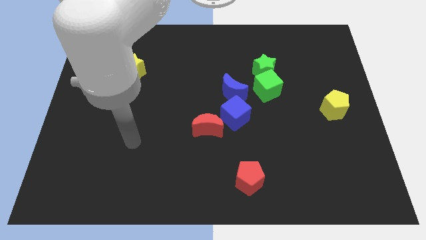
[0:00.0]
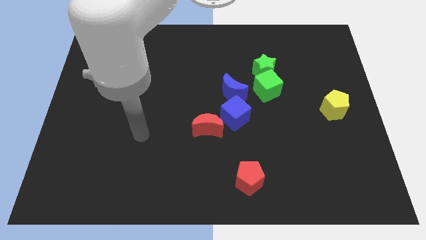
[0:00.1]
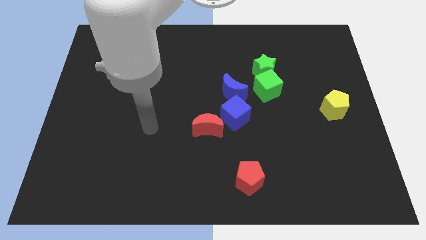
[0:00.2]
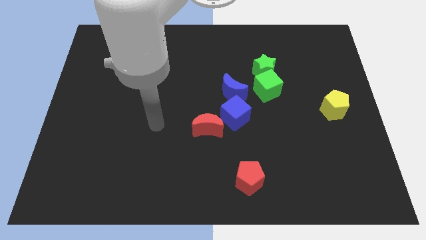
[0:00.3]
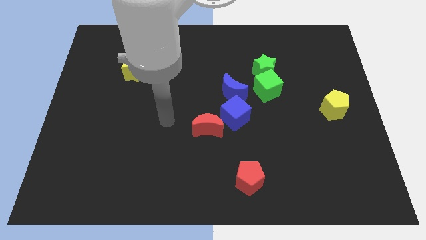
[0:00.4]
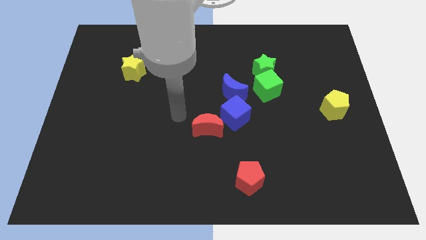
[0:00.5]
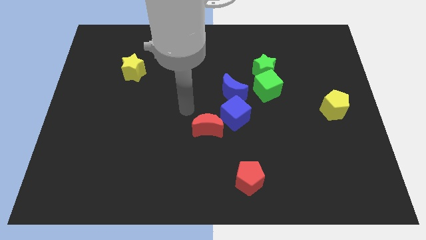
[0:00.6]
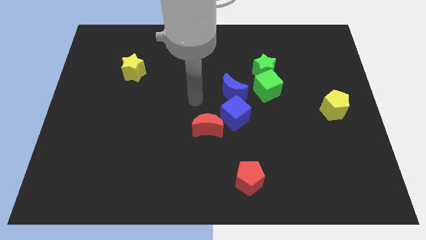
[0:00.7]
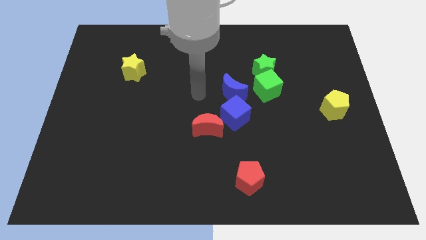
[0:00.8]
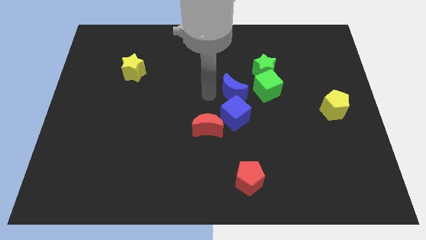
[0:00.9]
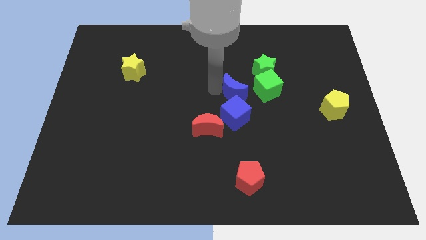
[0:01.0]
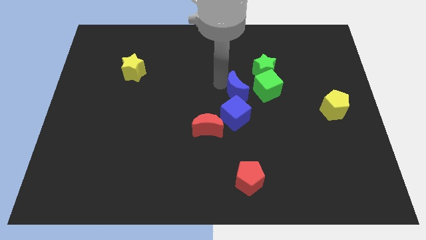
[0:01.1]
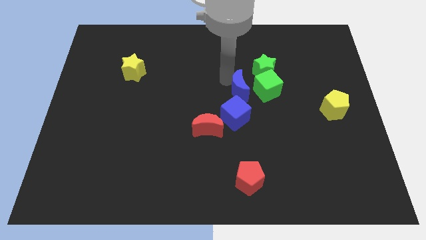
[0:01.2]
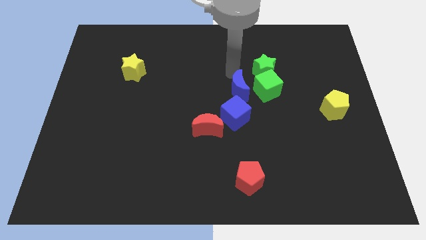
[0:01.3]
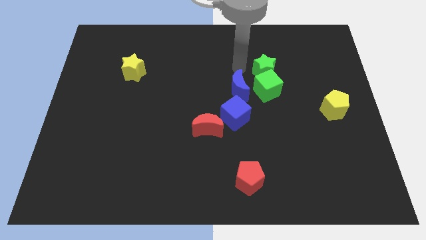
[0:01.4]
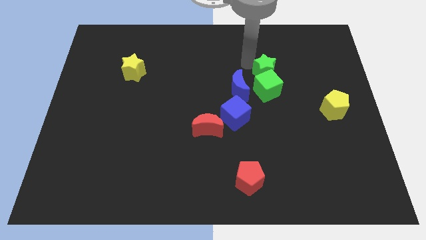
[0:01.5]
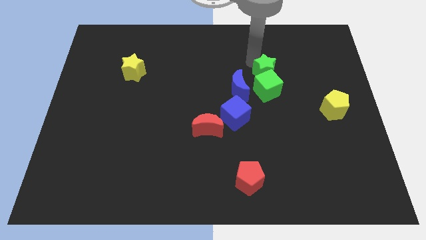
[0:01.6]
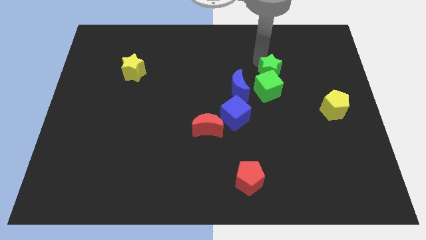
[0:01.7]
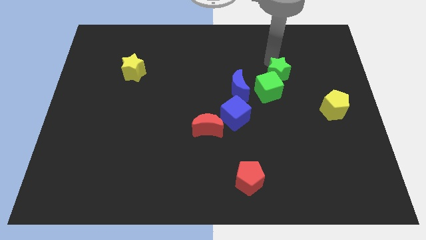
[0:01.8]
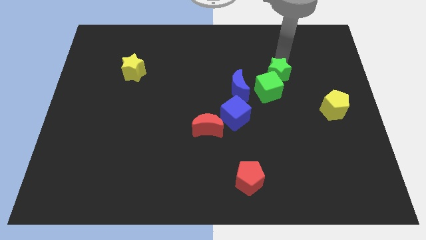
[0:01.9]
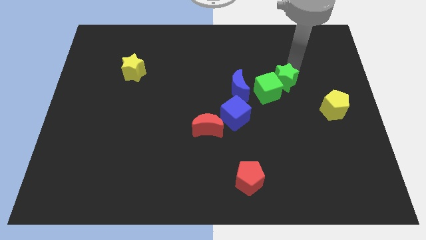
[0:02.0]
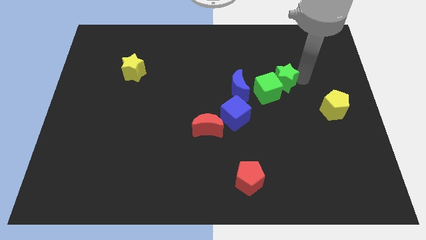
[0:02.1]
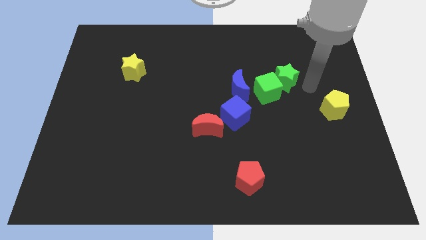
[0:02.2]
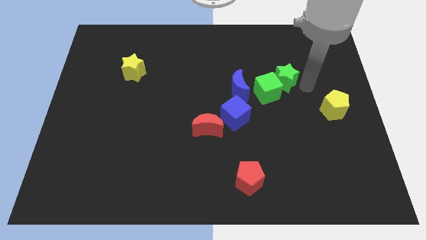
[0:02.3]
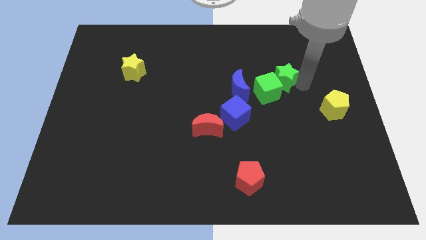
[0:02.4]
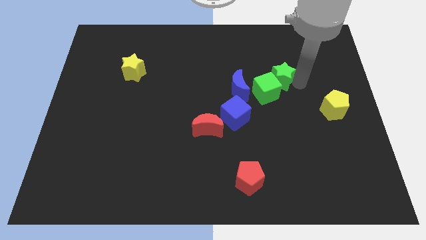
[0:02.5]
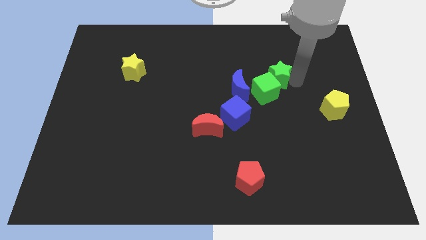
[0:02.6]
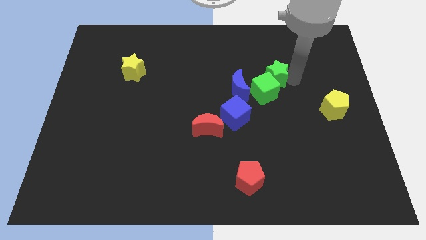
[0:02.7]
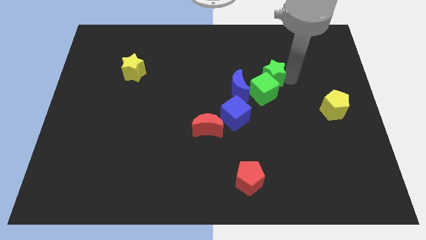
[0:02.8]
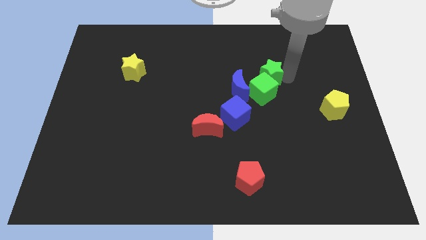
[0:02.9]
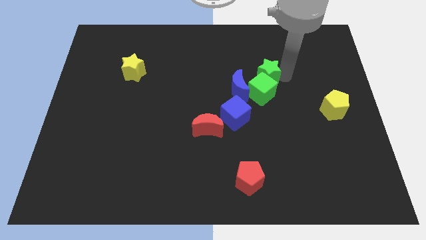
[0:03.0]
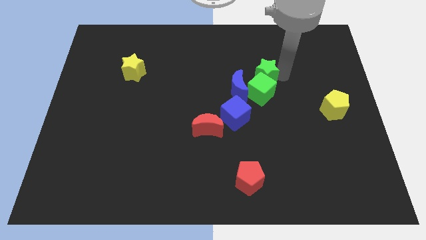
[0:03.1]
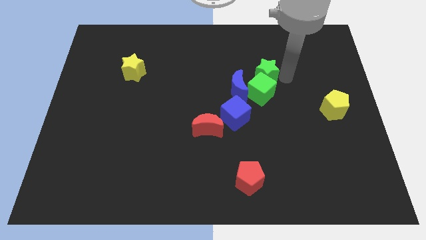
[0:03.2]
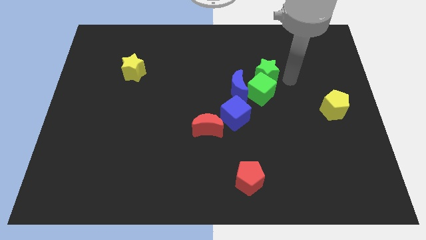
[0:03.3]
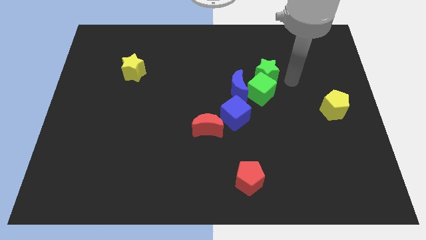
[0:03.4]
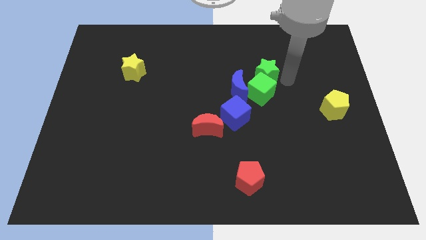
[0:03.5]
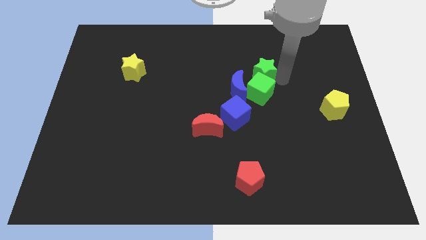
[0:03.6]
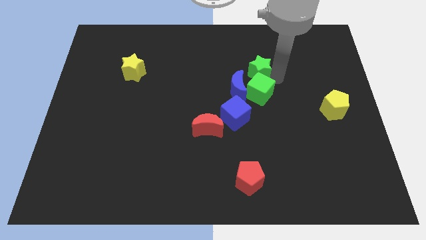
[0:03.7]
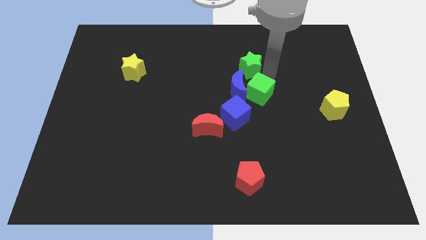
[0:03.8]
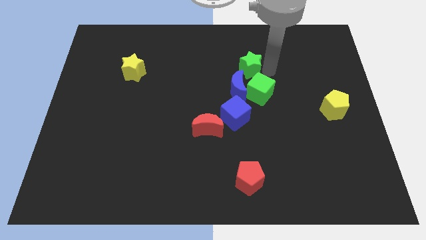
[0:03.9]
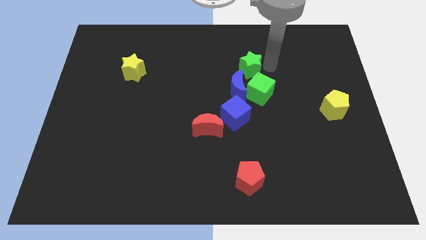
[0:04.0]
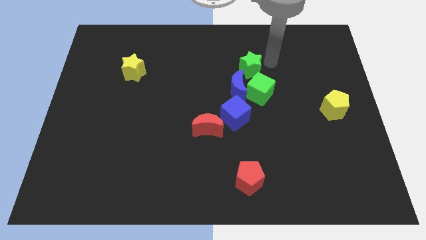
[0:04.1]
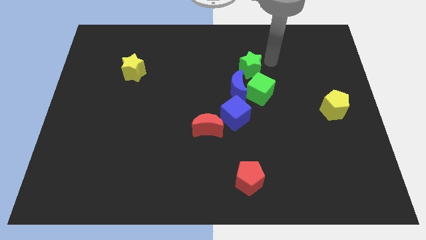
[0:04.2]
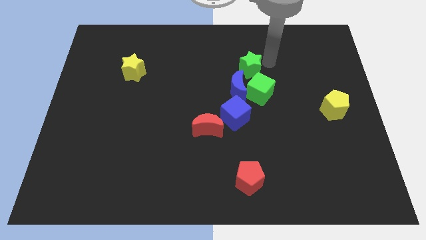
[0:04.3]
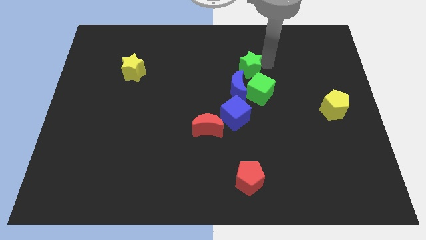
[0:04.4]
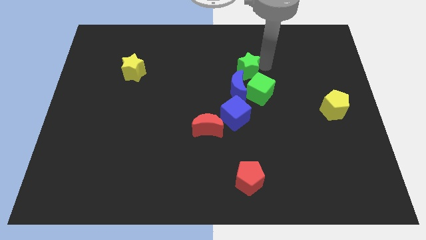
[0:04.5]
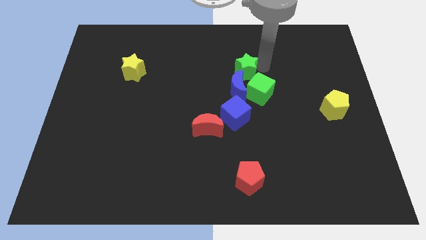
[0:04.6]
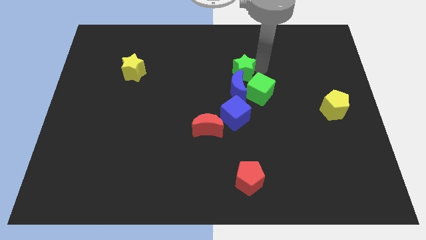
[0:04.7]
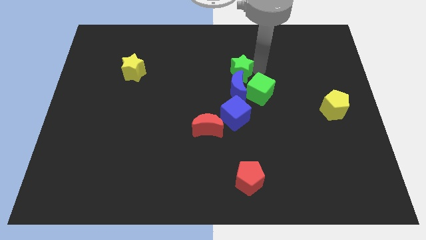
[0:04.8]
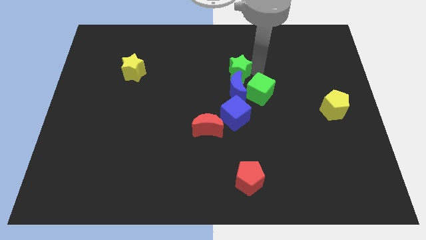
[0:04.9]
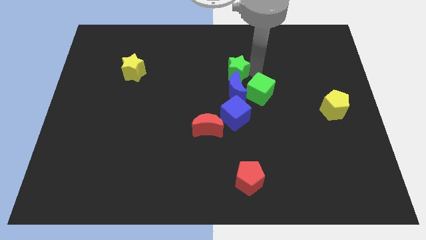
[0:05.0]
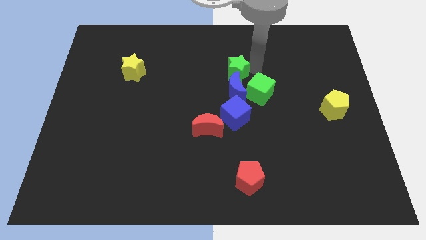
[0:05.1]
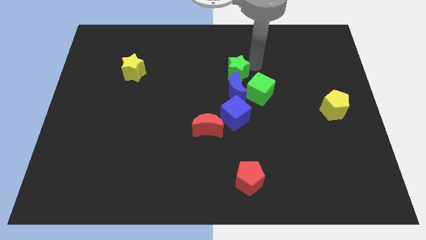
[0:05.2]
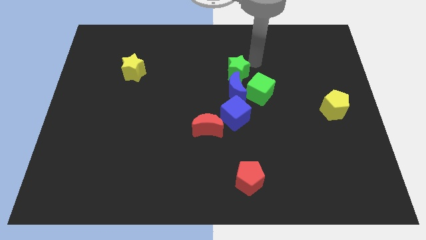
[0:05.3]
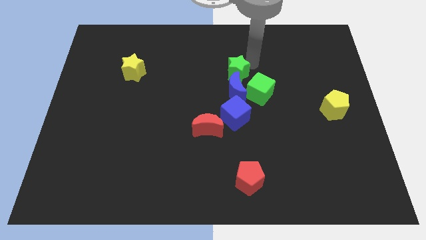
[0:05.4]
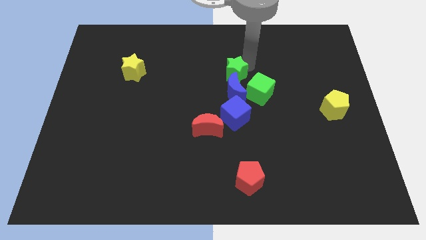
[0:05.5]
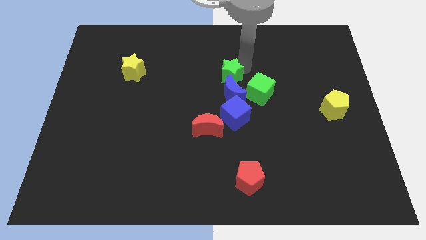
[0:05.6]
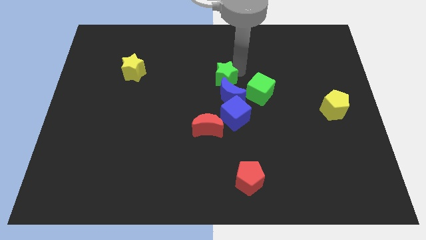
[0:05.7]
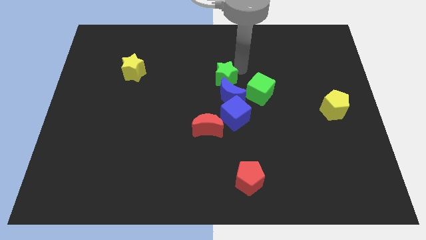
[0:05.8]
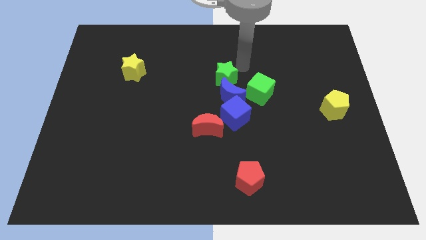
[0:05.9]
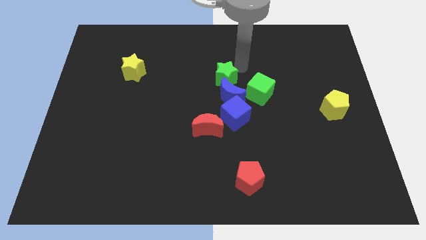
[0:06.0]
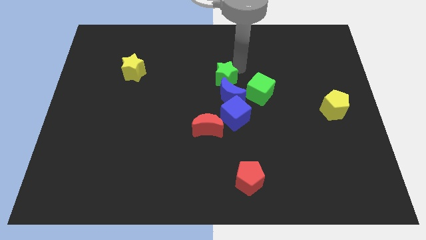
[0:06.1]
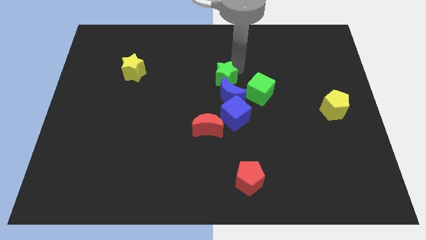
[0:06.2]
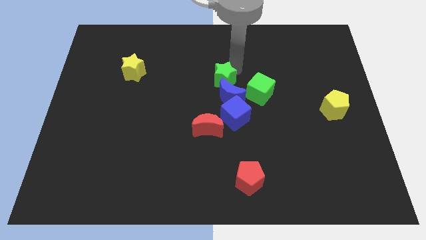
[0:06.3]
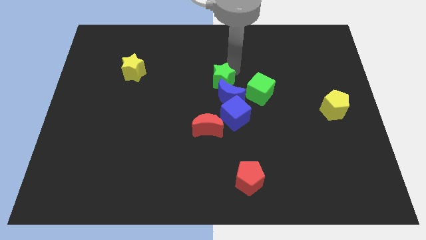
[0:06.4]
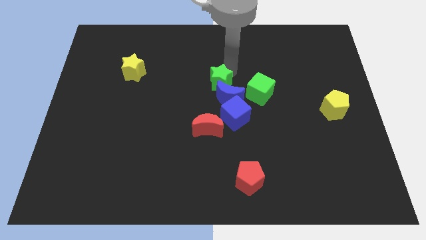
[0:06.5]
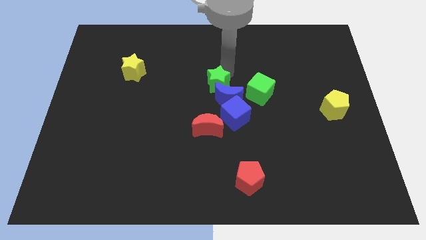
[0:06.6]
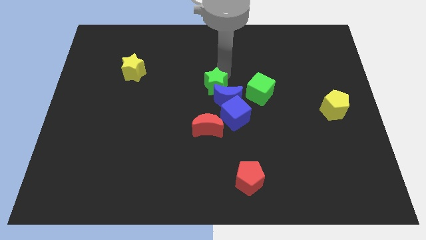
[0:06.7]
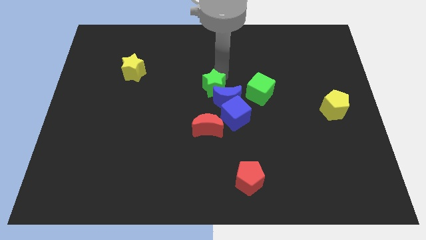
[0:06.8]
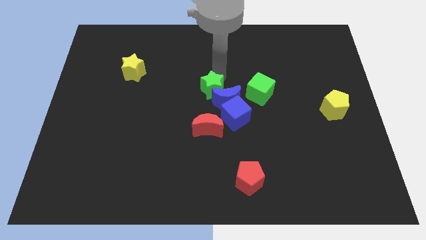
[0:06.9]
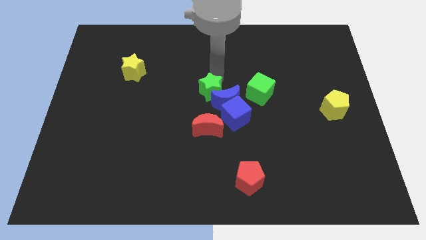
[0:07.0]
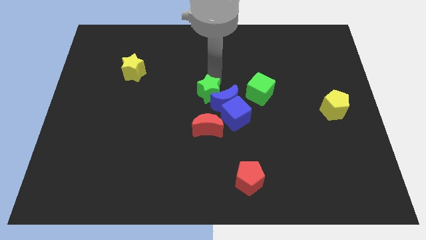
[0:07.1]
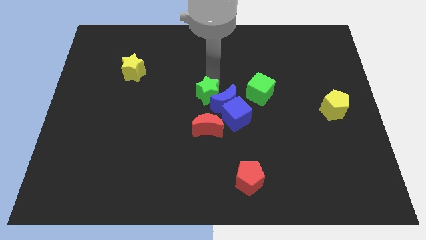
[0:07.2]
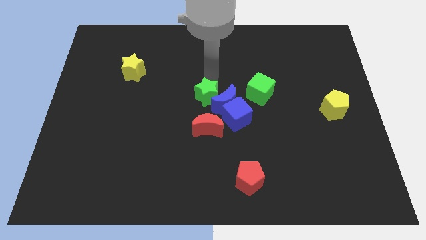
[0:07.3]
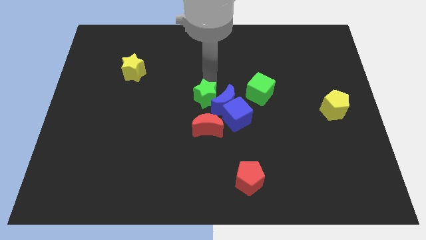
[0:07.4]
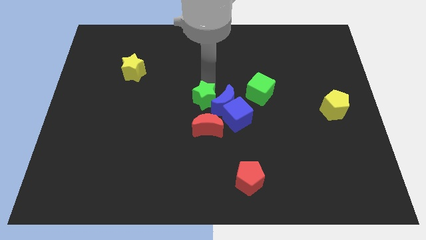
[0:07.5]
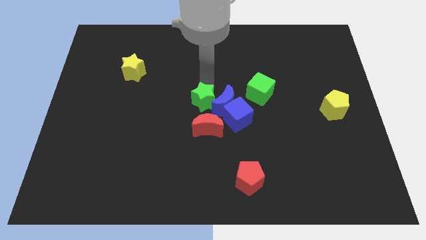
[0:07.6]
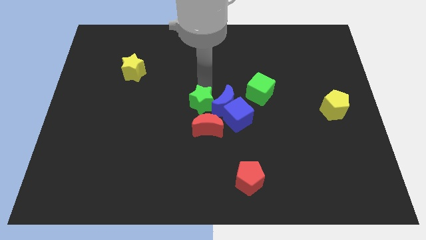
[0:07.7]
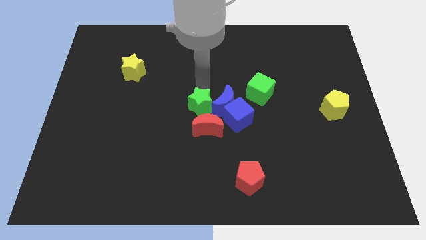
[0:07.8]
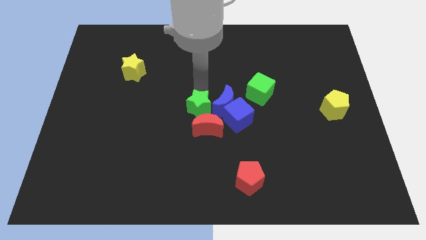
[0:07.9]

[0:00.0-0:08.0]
slide the green star close to the red moon
